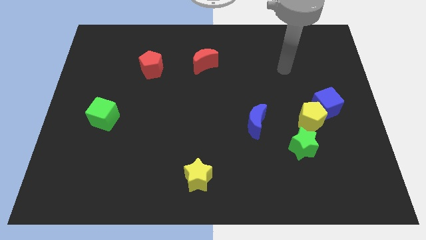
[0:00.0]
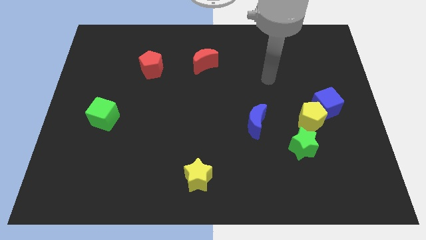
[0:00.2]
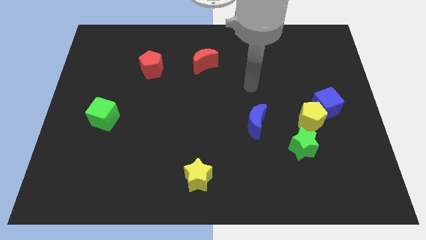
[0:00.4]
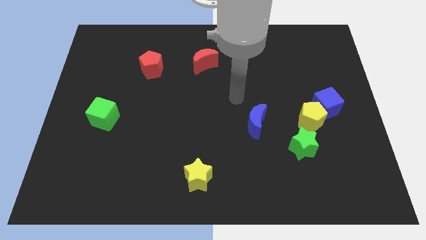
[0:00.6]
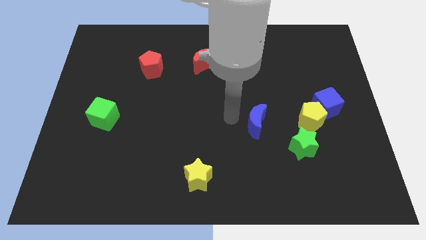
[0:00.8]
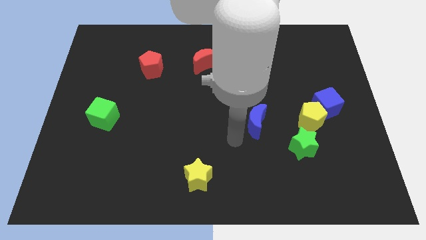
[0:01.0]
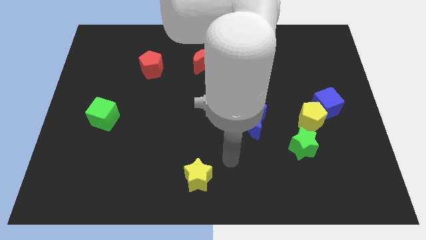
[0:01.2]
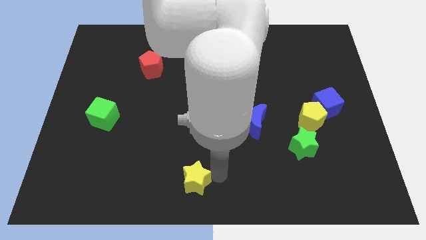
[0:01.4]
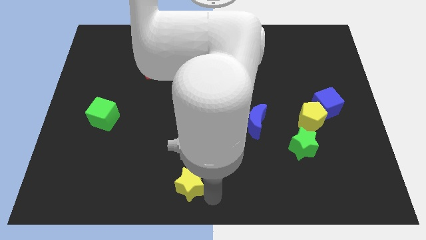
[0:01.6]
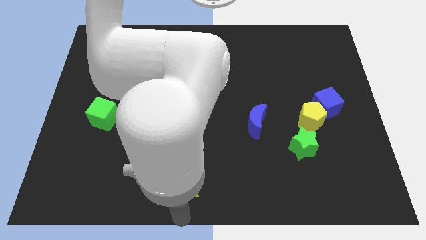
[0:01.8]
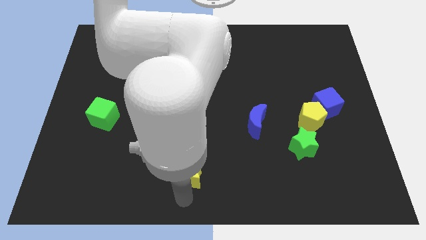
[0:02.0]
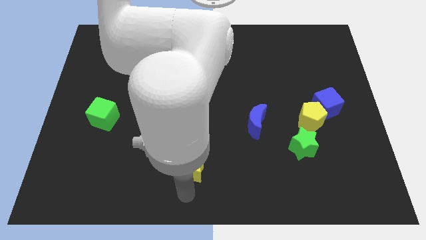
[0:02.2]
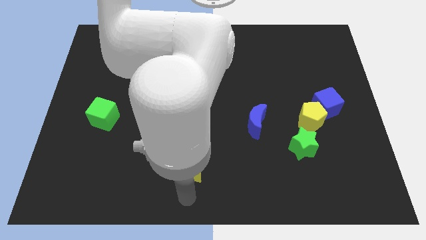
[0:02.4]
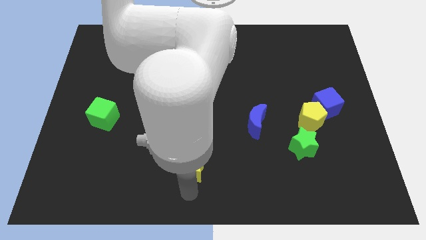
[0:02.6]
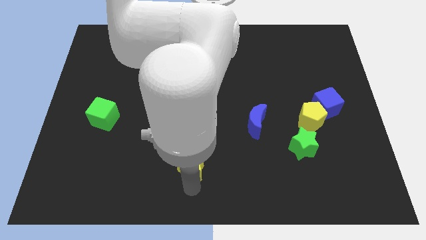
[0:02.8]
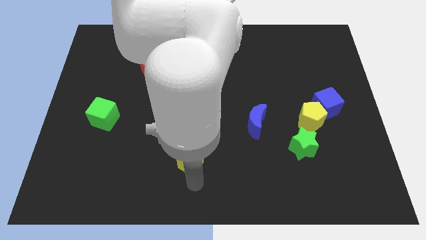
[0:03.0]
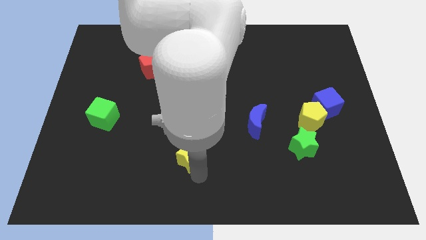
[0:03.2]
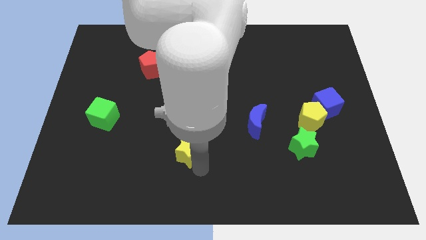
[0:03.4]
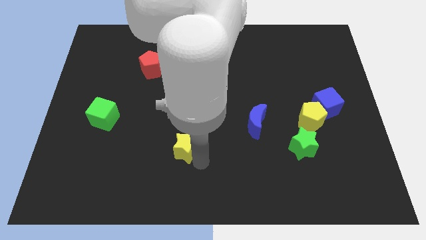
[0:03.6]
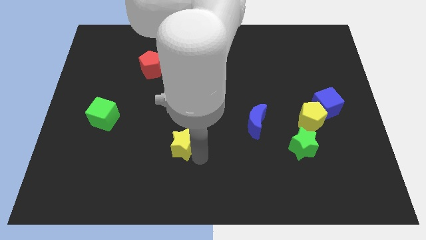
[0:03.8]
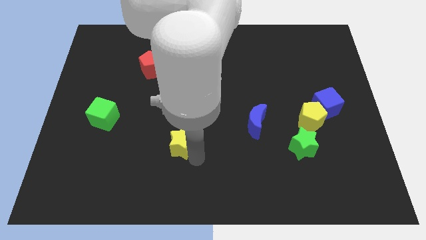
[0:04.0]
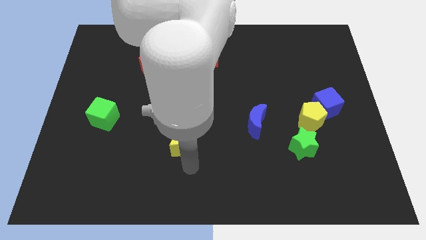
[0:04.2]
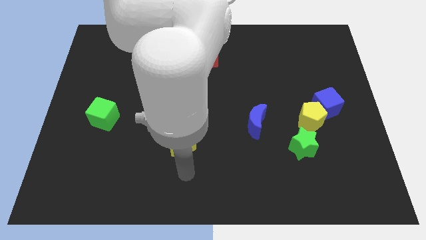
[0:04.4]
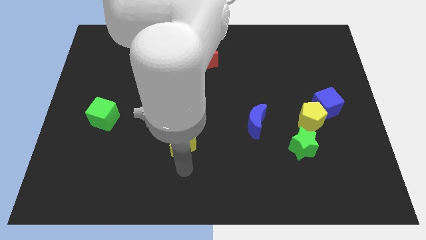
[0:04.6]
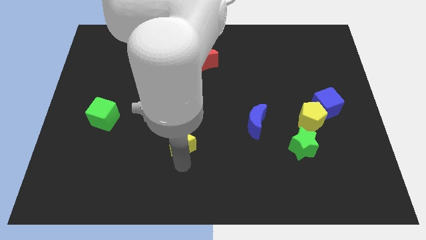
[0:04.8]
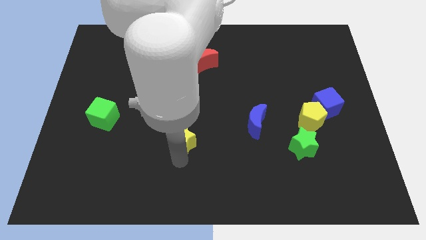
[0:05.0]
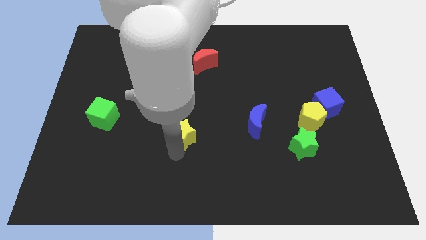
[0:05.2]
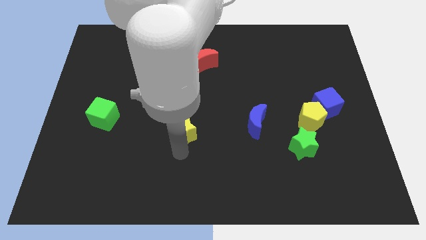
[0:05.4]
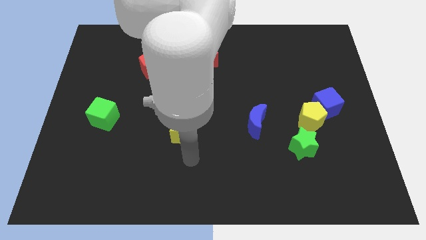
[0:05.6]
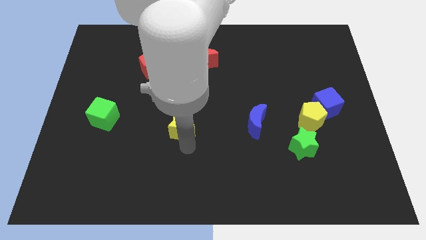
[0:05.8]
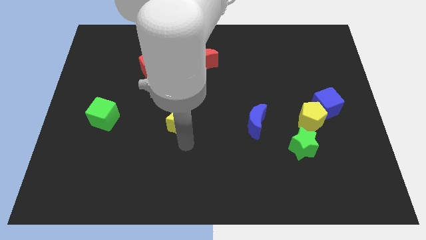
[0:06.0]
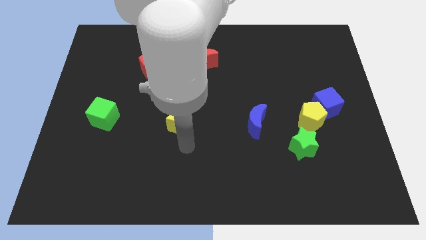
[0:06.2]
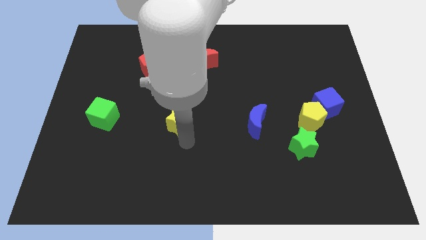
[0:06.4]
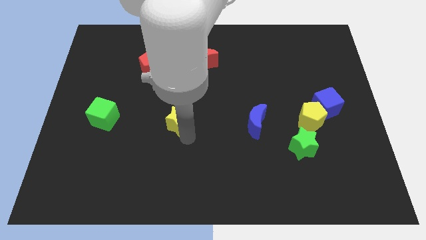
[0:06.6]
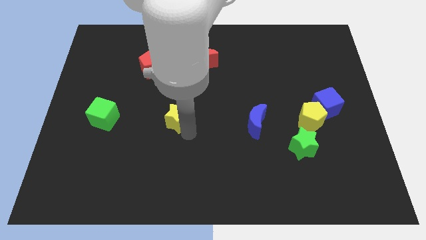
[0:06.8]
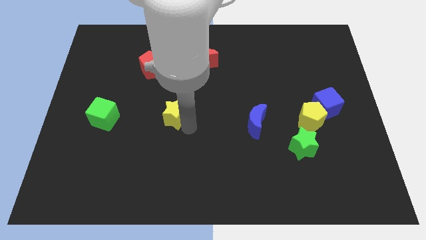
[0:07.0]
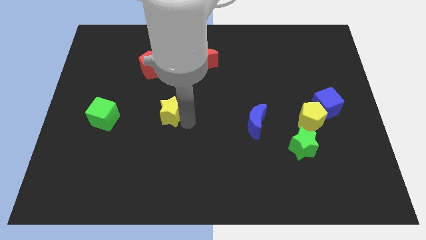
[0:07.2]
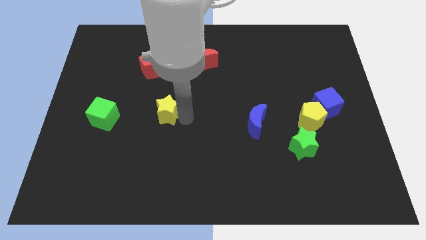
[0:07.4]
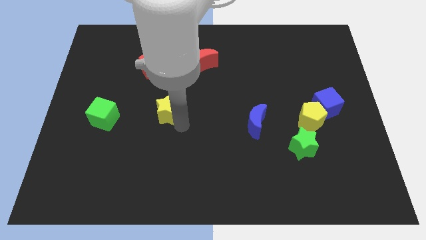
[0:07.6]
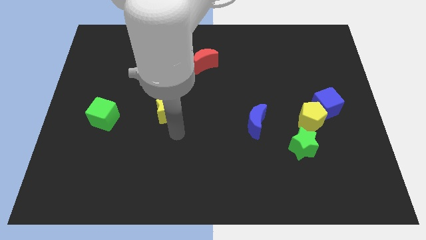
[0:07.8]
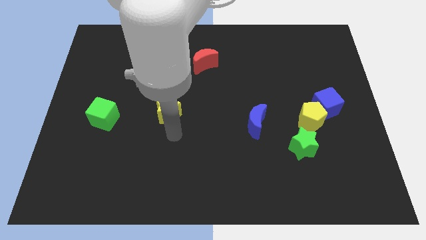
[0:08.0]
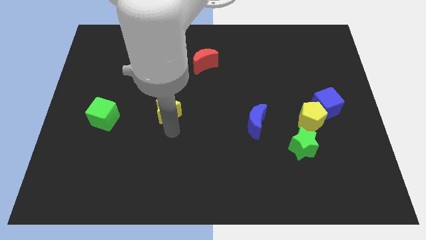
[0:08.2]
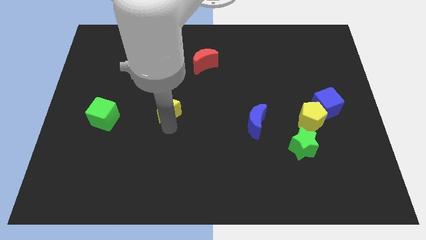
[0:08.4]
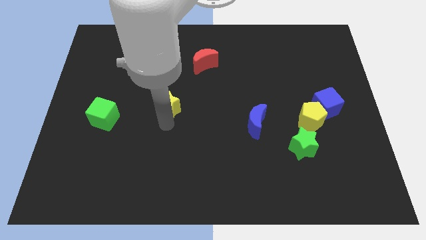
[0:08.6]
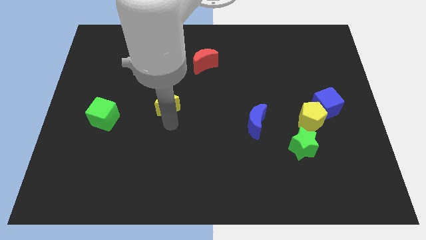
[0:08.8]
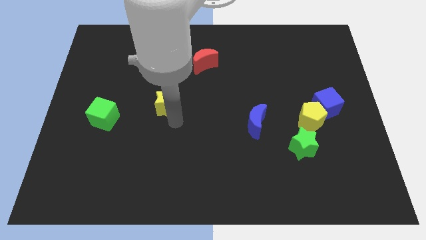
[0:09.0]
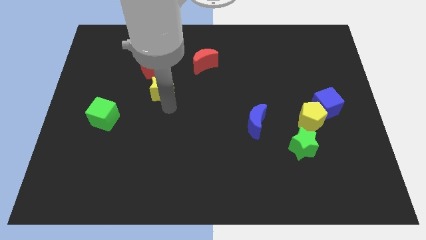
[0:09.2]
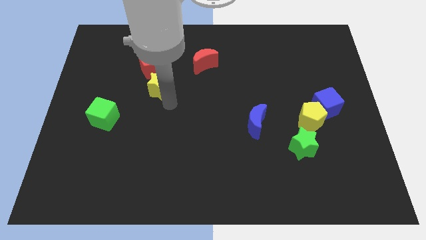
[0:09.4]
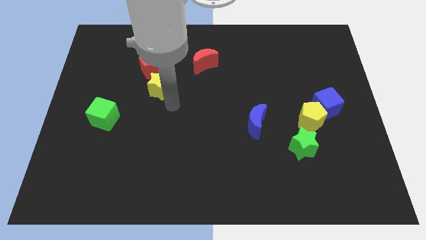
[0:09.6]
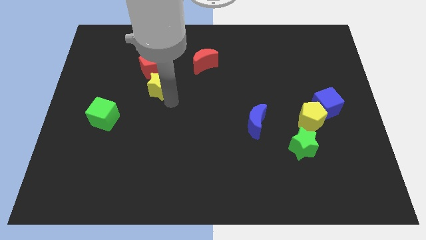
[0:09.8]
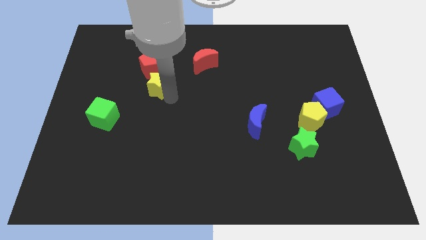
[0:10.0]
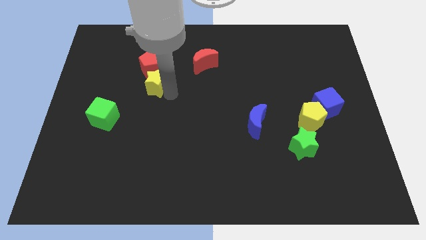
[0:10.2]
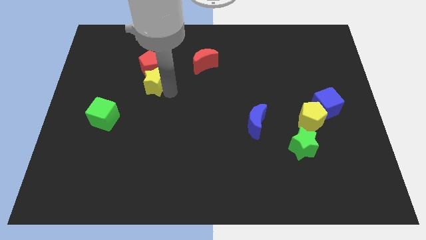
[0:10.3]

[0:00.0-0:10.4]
slide the yellow star towards the red pentagon
